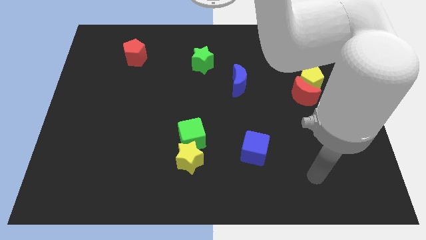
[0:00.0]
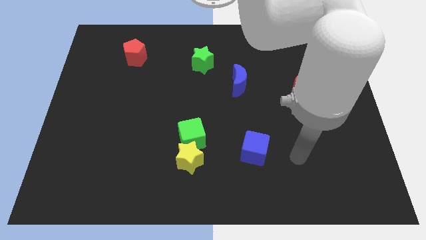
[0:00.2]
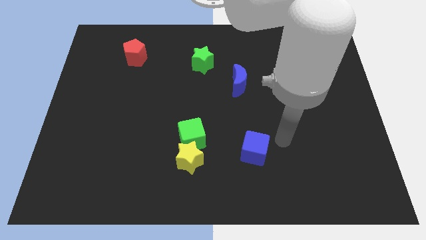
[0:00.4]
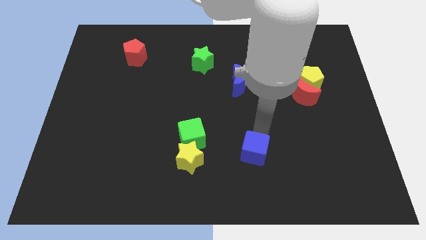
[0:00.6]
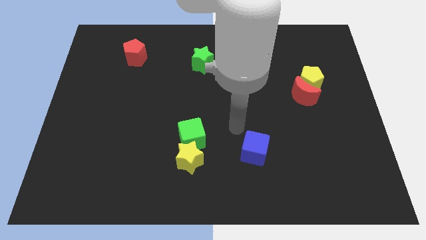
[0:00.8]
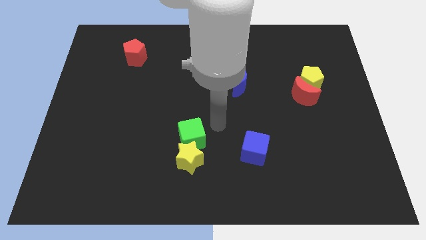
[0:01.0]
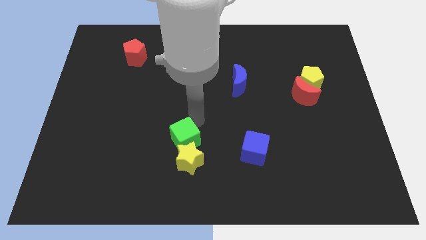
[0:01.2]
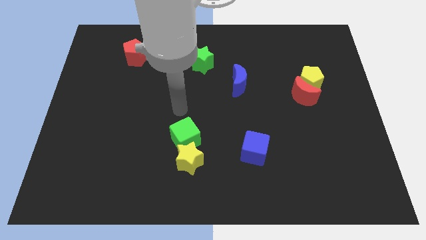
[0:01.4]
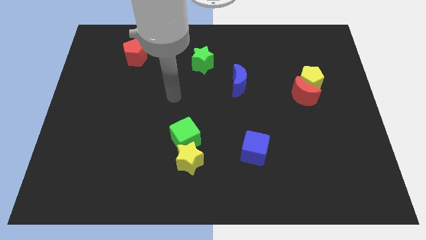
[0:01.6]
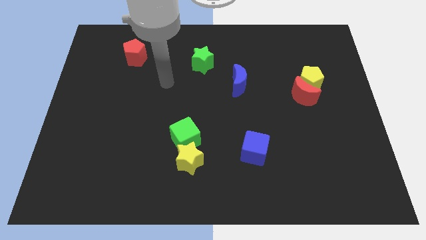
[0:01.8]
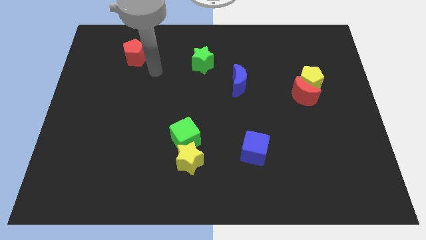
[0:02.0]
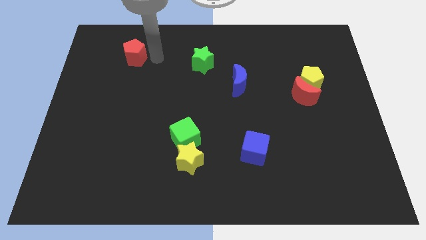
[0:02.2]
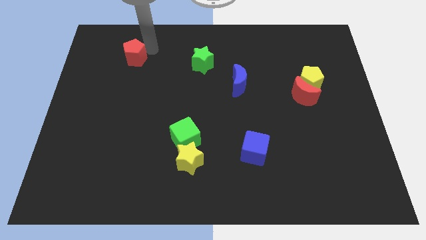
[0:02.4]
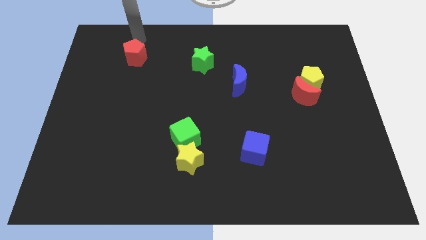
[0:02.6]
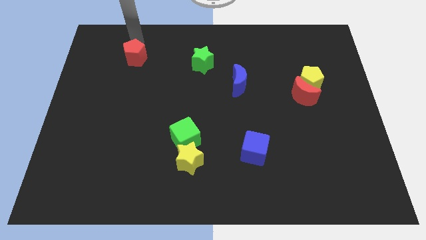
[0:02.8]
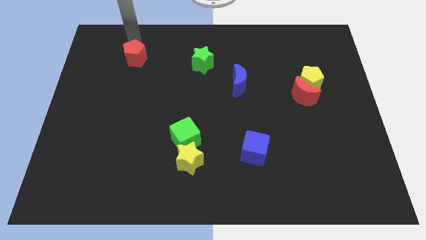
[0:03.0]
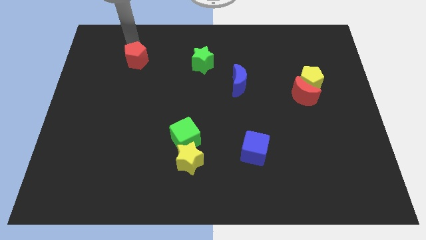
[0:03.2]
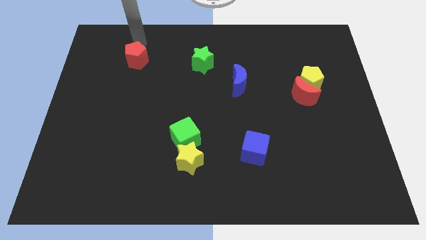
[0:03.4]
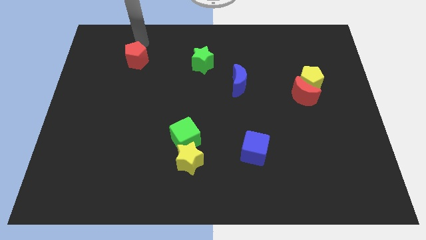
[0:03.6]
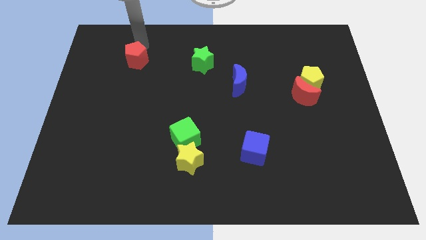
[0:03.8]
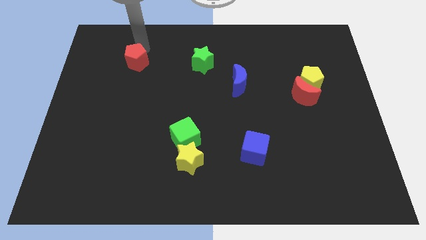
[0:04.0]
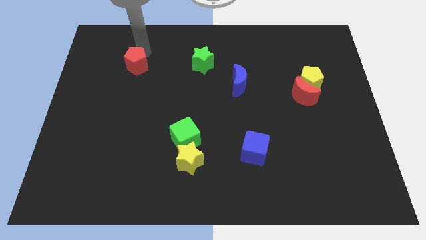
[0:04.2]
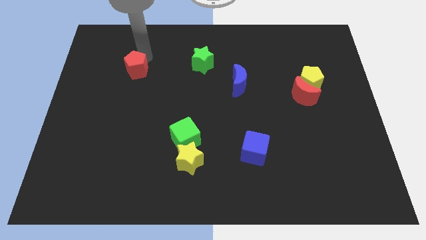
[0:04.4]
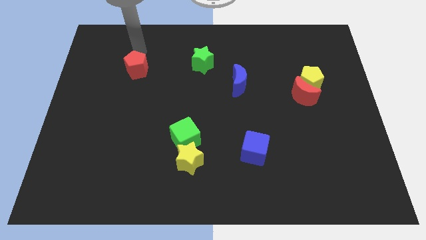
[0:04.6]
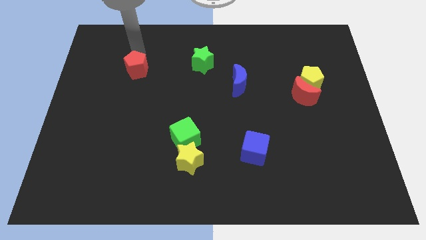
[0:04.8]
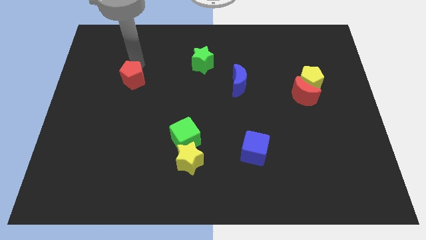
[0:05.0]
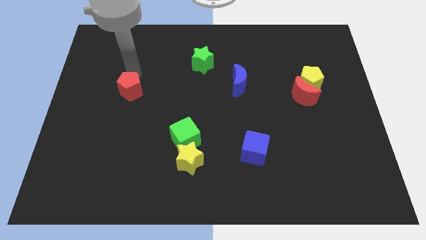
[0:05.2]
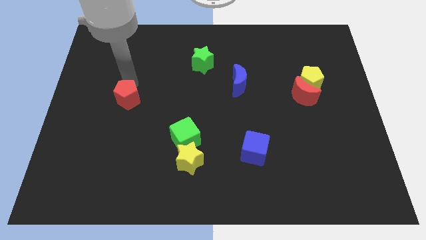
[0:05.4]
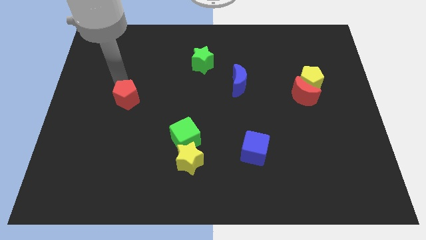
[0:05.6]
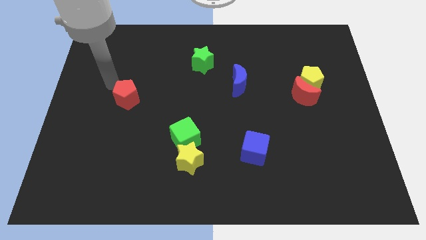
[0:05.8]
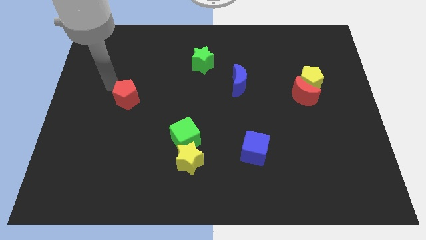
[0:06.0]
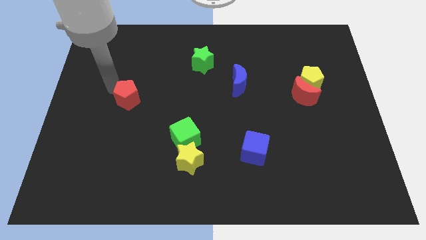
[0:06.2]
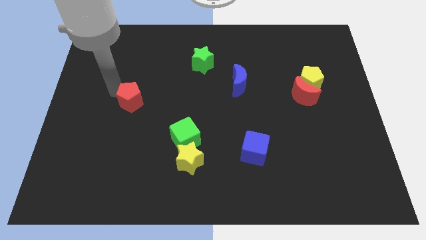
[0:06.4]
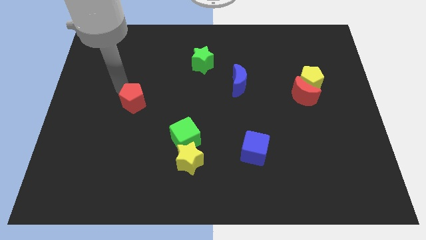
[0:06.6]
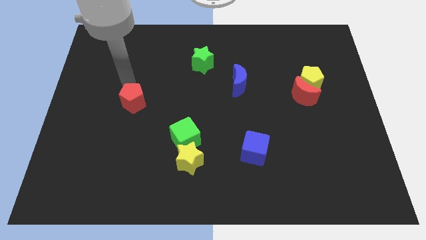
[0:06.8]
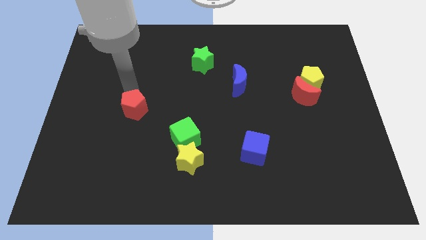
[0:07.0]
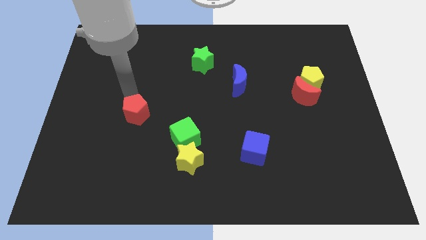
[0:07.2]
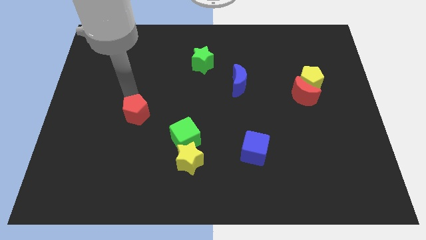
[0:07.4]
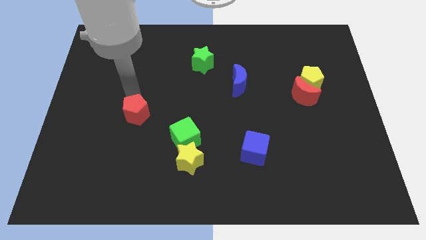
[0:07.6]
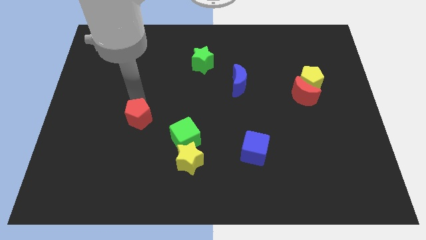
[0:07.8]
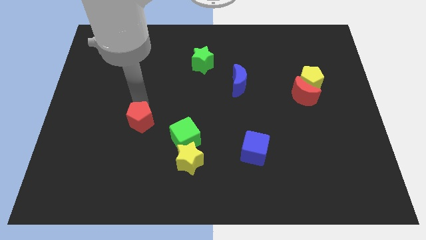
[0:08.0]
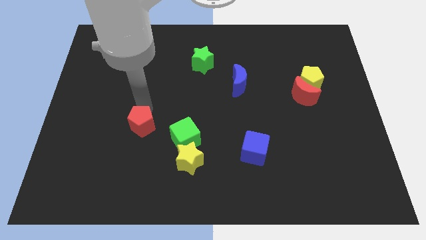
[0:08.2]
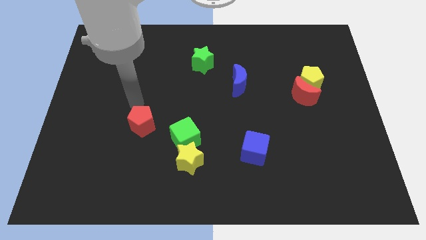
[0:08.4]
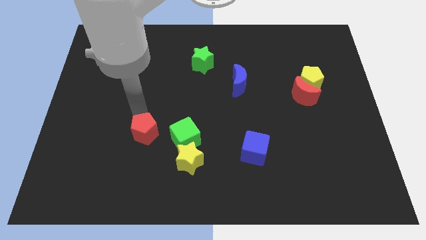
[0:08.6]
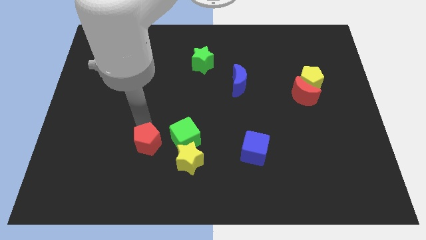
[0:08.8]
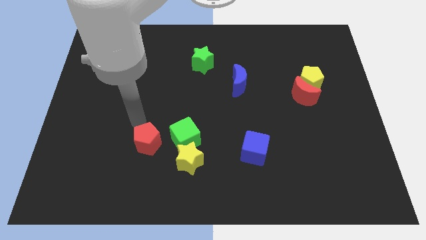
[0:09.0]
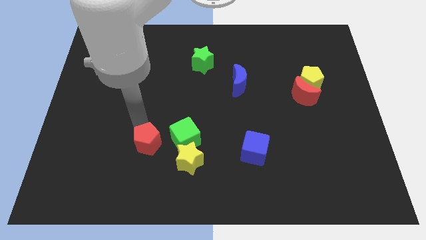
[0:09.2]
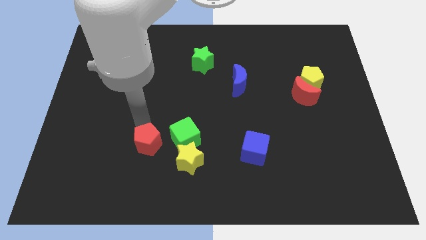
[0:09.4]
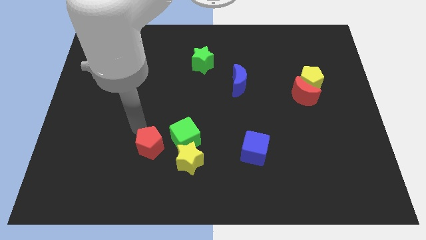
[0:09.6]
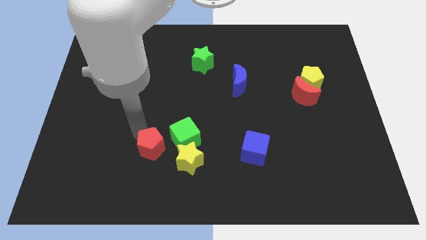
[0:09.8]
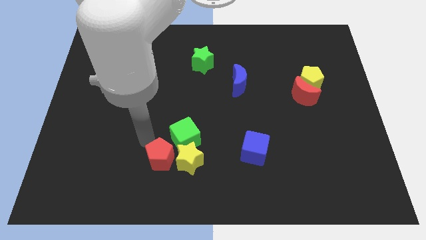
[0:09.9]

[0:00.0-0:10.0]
move the red pentagon below the green cube

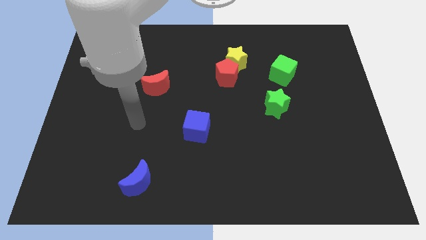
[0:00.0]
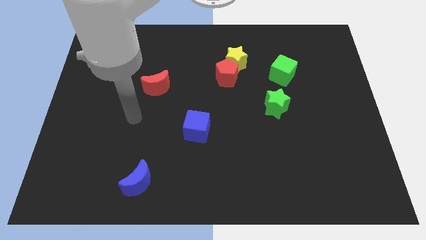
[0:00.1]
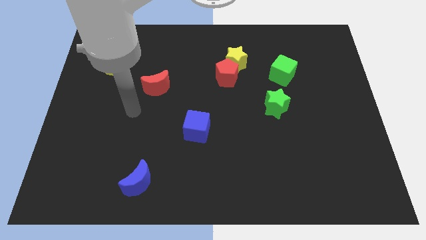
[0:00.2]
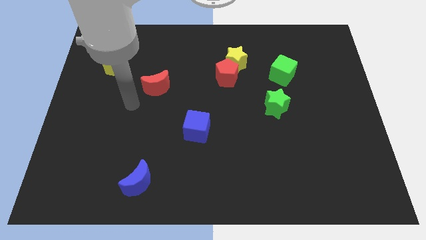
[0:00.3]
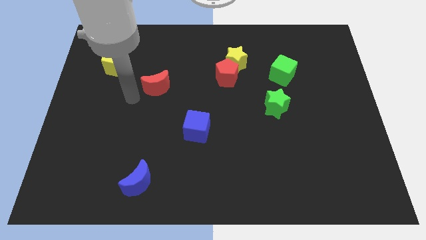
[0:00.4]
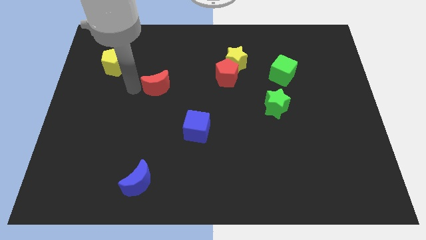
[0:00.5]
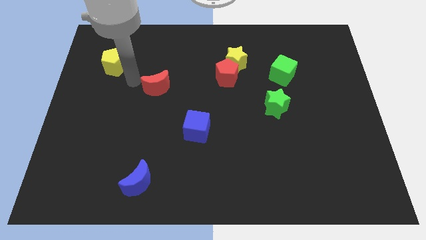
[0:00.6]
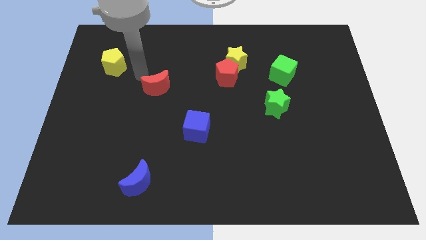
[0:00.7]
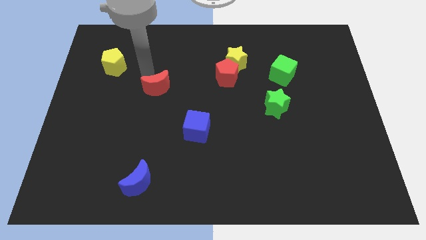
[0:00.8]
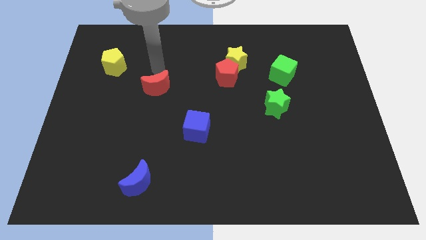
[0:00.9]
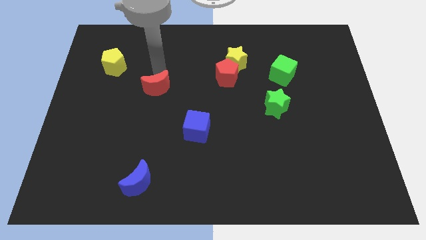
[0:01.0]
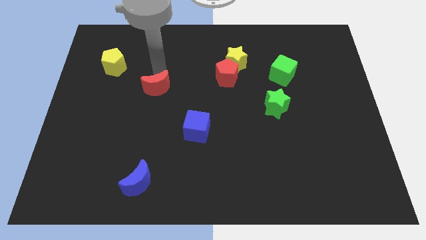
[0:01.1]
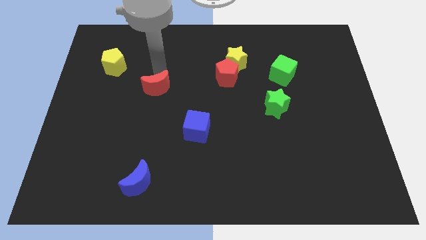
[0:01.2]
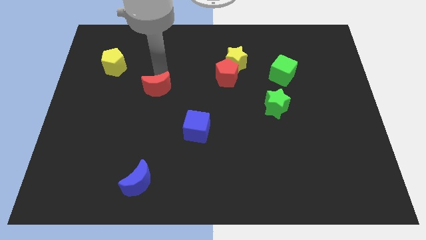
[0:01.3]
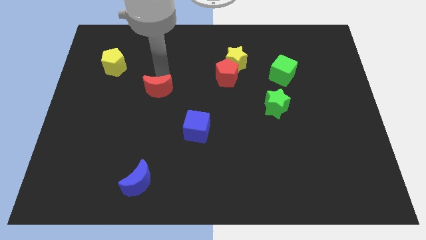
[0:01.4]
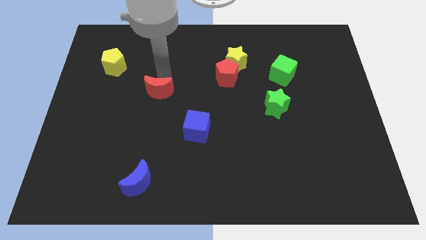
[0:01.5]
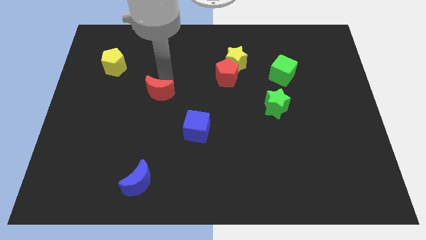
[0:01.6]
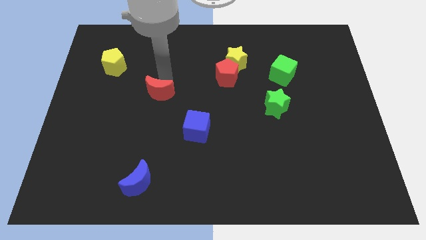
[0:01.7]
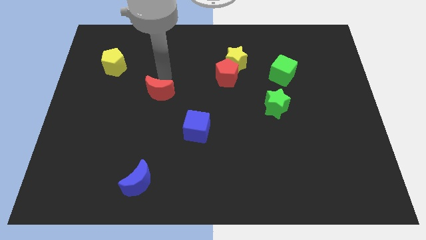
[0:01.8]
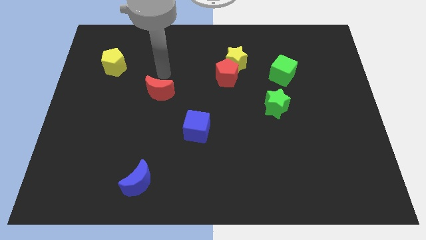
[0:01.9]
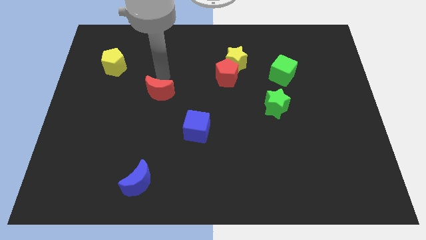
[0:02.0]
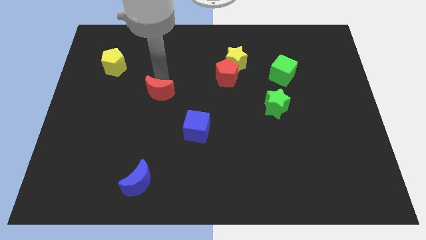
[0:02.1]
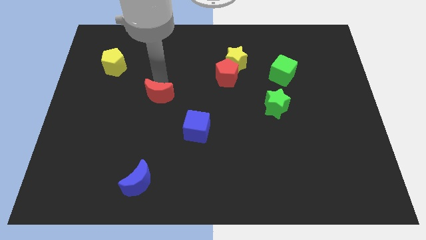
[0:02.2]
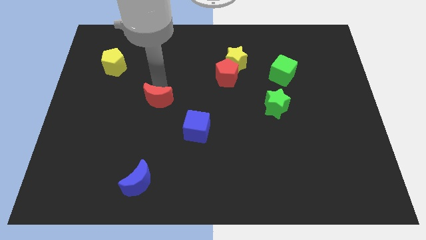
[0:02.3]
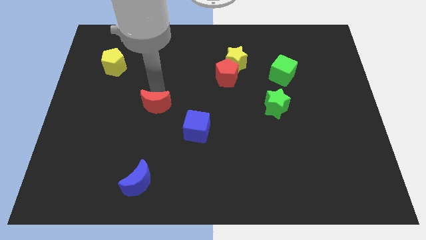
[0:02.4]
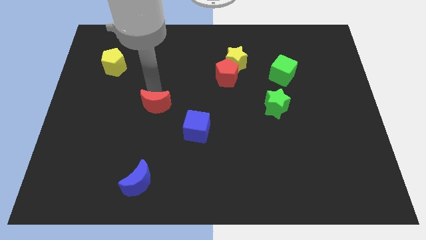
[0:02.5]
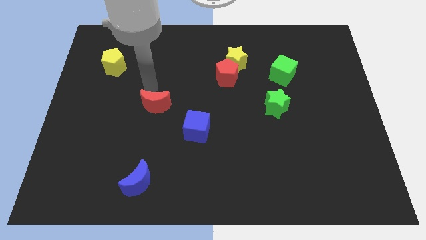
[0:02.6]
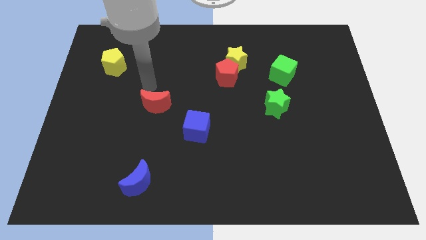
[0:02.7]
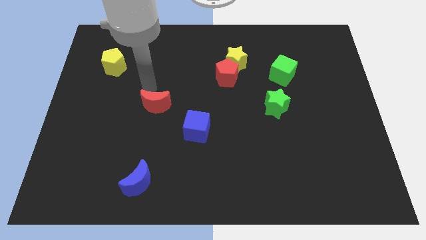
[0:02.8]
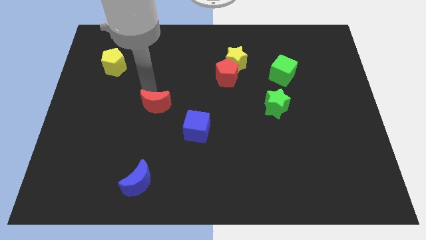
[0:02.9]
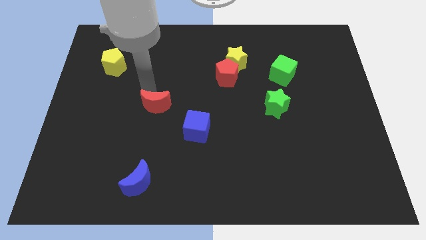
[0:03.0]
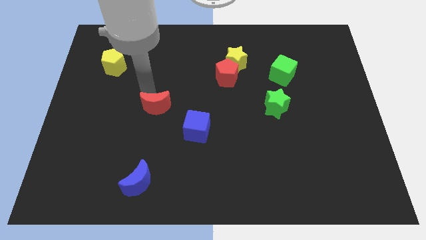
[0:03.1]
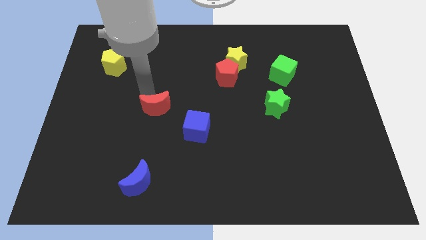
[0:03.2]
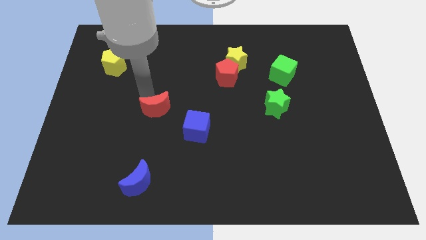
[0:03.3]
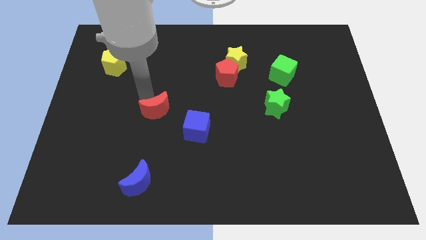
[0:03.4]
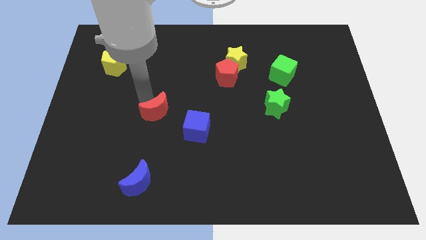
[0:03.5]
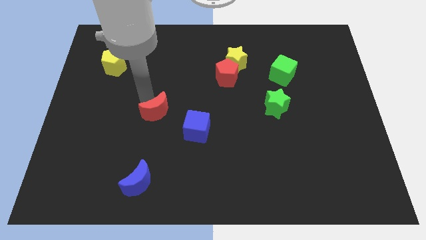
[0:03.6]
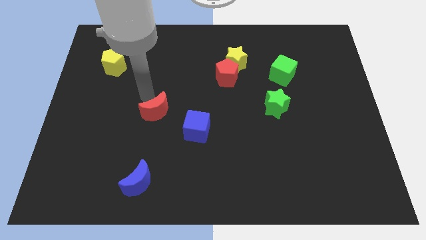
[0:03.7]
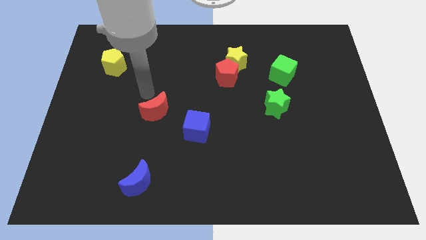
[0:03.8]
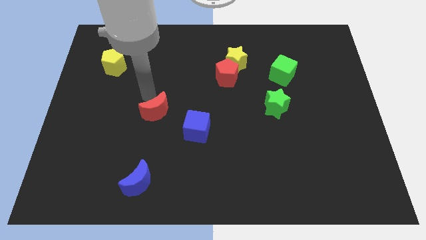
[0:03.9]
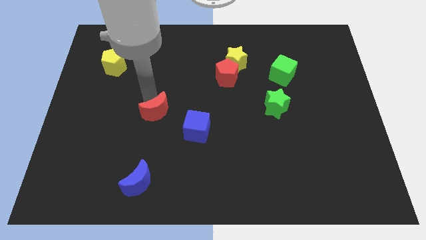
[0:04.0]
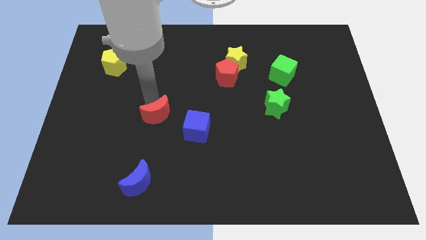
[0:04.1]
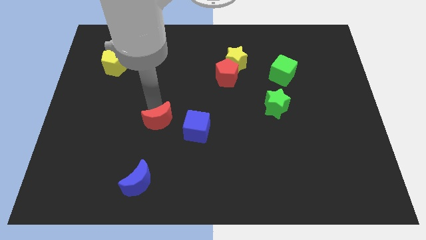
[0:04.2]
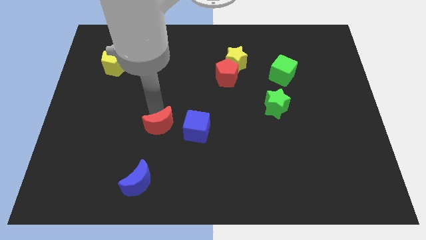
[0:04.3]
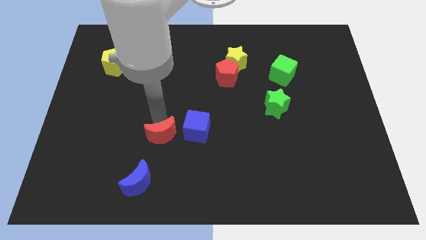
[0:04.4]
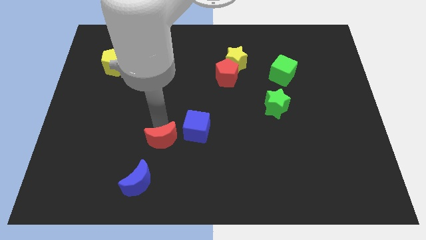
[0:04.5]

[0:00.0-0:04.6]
push the red moon to the top right side of the blue moon
